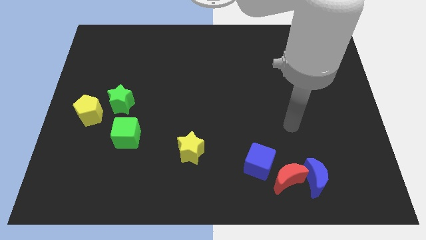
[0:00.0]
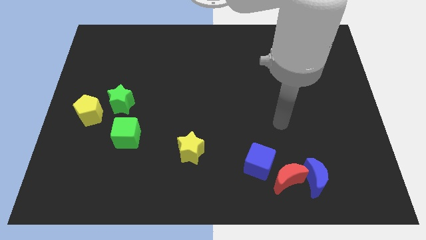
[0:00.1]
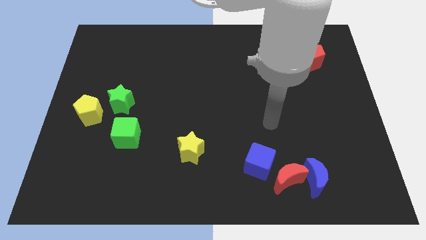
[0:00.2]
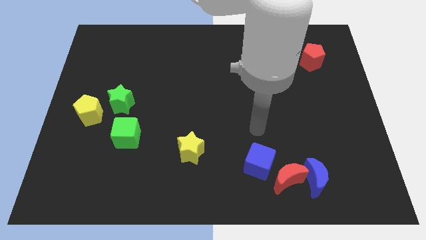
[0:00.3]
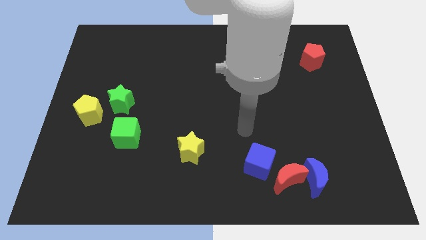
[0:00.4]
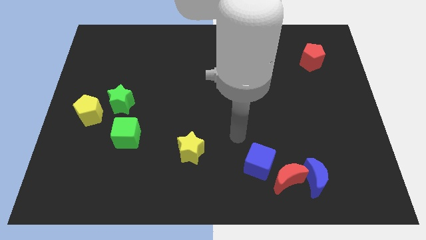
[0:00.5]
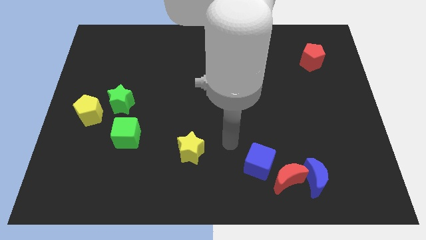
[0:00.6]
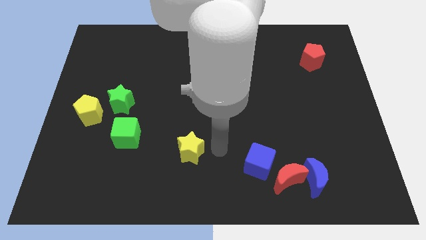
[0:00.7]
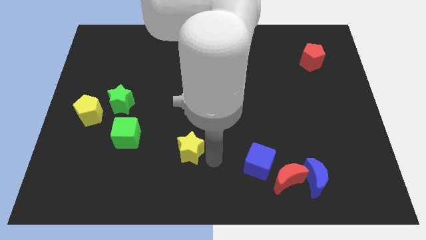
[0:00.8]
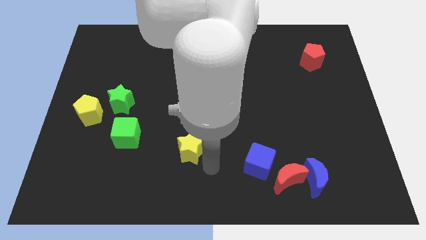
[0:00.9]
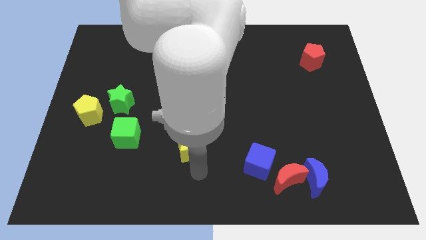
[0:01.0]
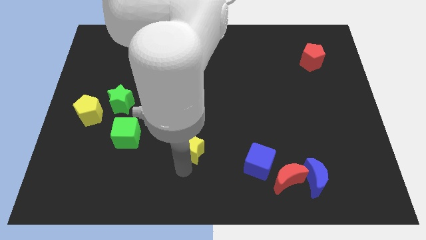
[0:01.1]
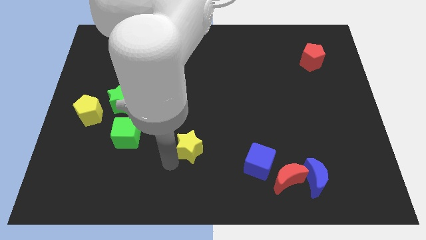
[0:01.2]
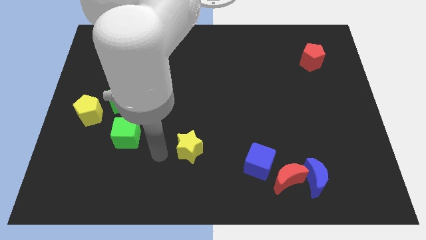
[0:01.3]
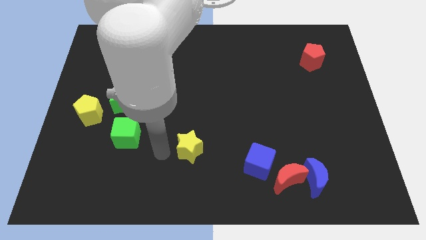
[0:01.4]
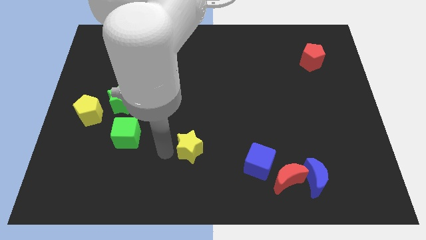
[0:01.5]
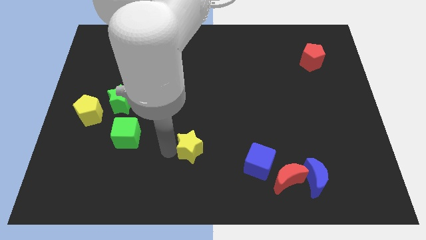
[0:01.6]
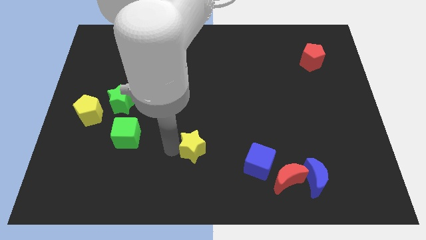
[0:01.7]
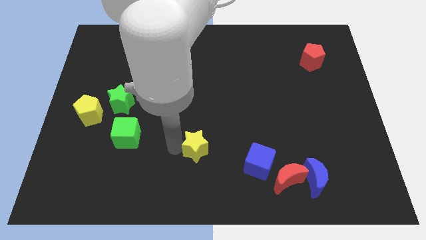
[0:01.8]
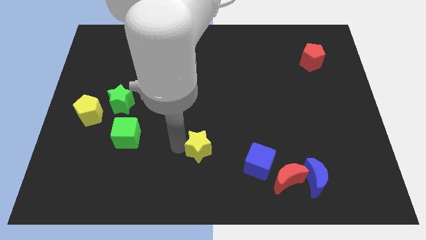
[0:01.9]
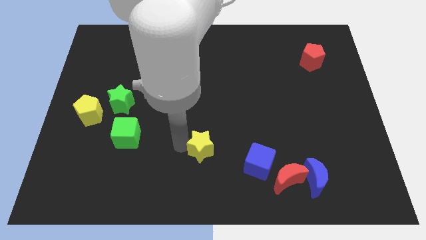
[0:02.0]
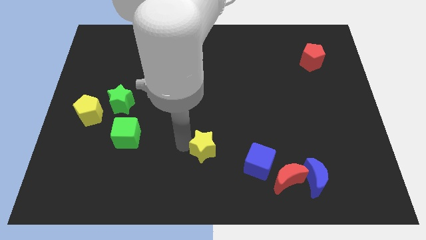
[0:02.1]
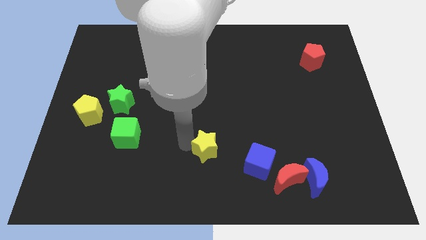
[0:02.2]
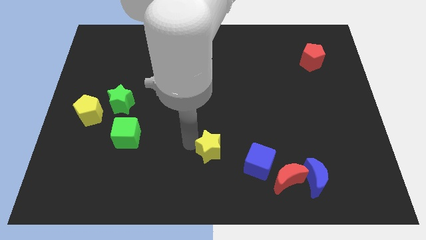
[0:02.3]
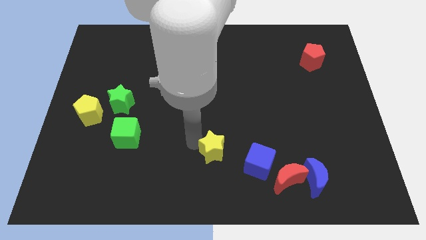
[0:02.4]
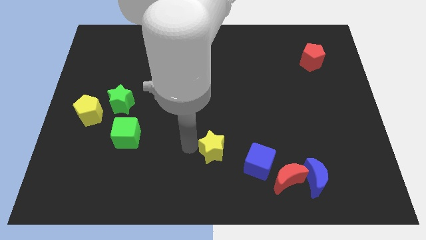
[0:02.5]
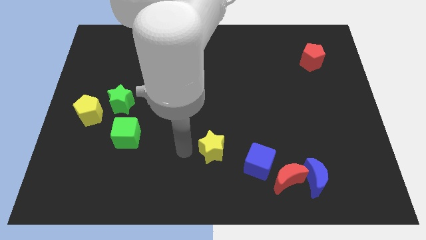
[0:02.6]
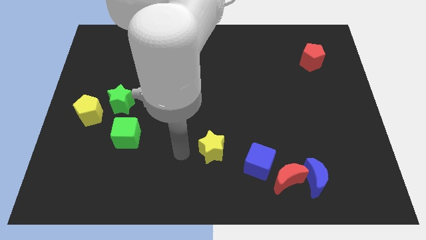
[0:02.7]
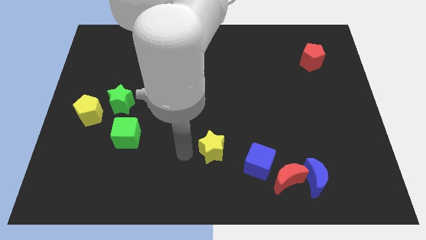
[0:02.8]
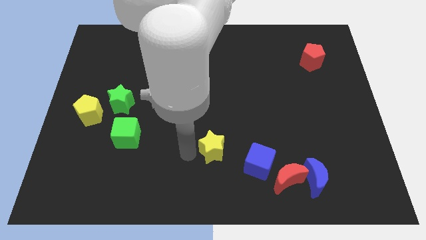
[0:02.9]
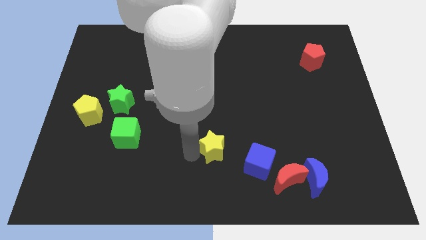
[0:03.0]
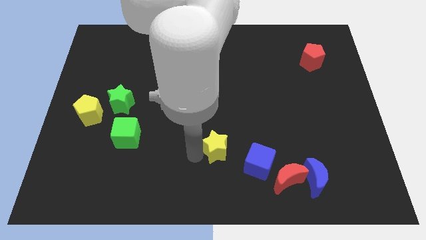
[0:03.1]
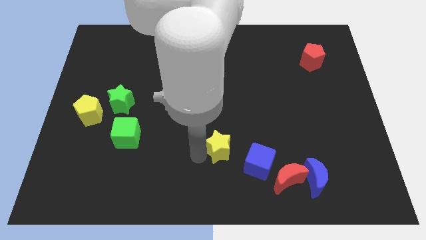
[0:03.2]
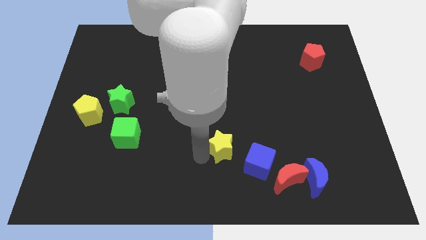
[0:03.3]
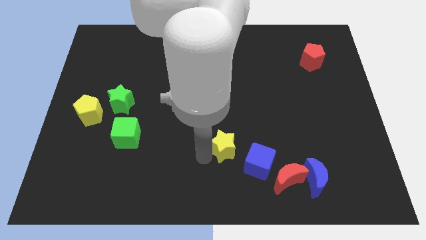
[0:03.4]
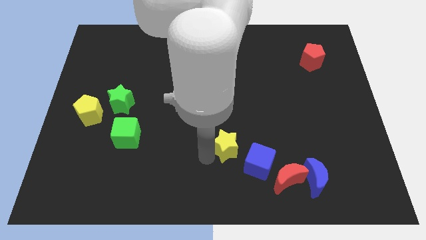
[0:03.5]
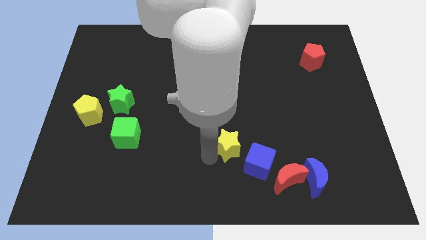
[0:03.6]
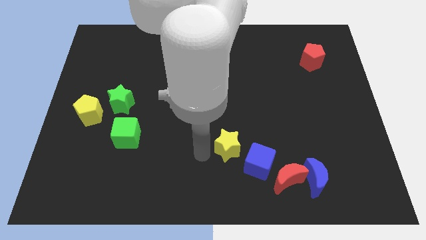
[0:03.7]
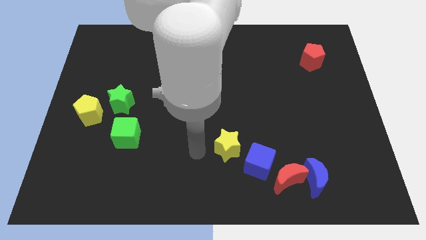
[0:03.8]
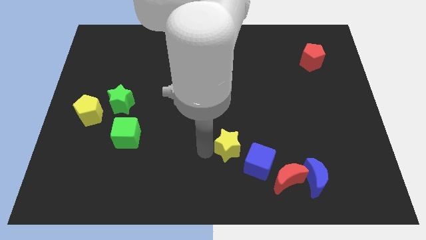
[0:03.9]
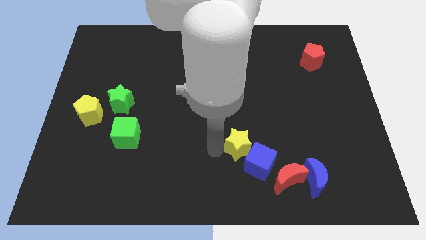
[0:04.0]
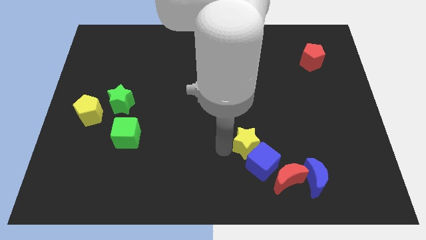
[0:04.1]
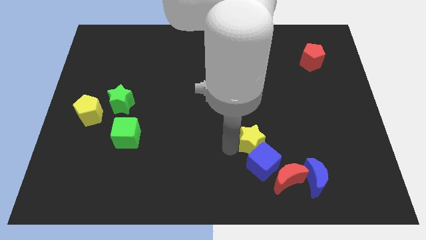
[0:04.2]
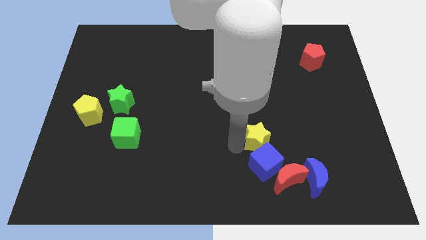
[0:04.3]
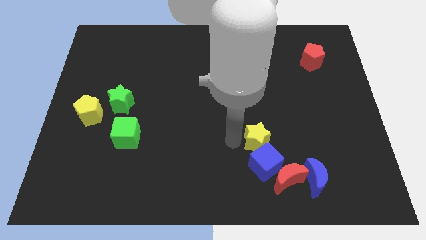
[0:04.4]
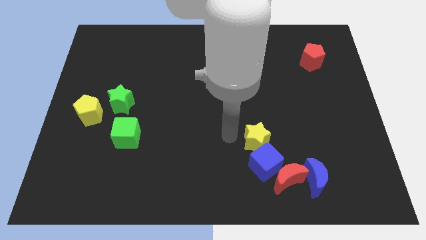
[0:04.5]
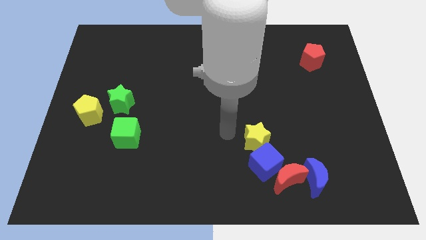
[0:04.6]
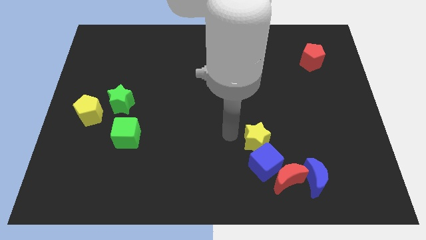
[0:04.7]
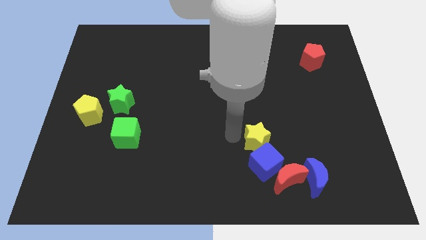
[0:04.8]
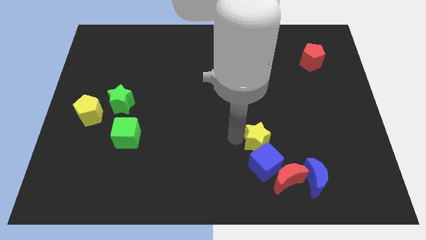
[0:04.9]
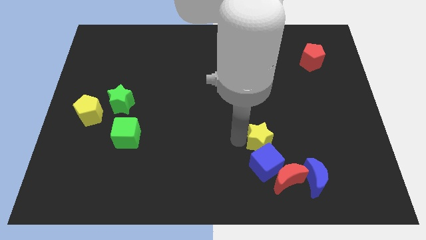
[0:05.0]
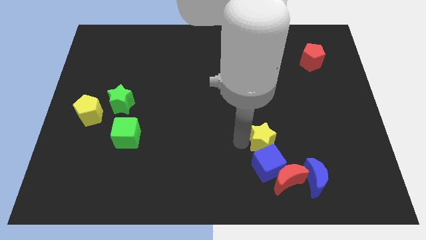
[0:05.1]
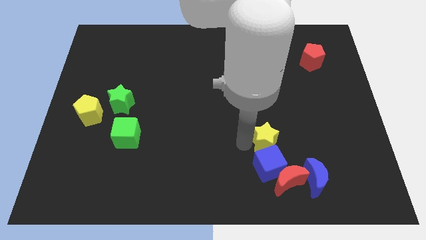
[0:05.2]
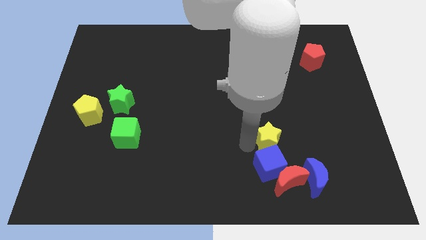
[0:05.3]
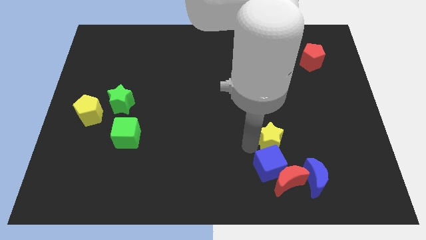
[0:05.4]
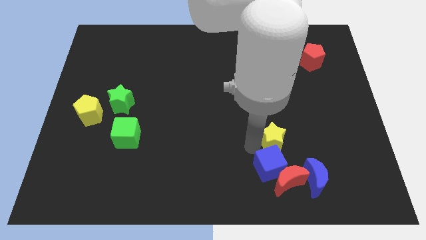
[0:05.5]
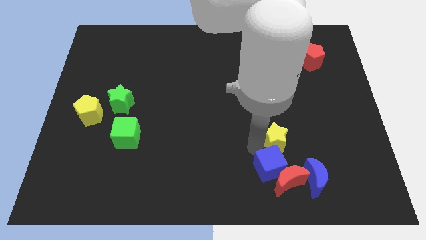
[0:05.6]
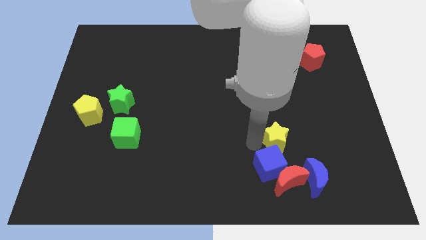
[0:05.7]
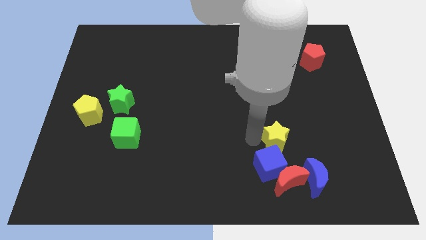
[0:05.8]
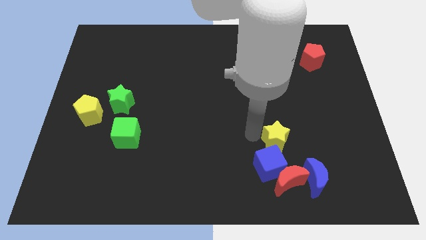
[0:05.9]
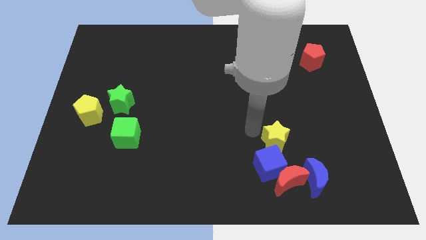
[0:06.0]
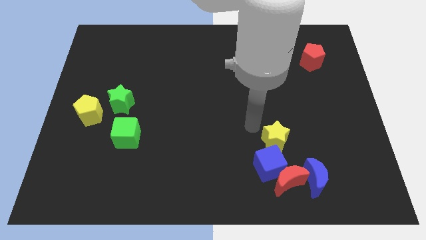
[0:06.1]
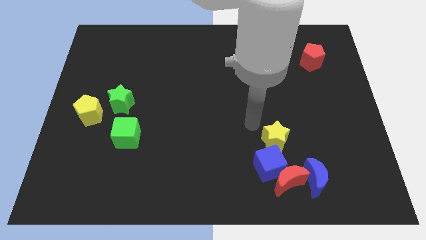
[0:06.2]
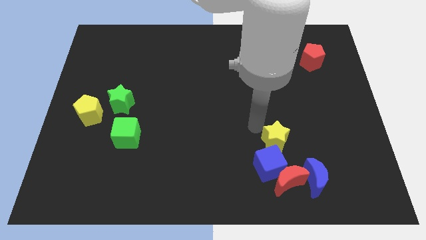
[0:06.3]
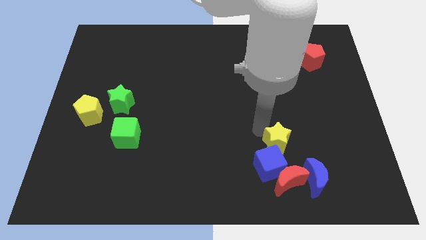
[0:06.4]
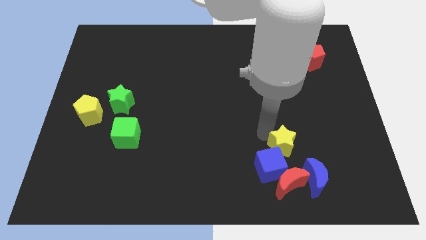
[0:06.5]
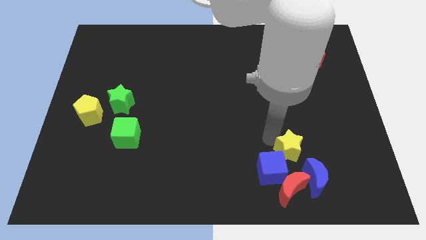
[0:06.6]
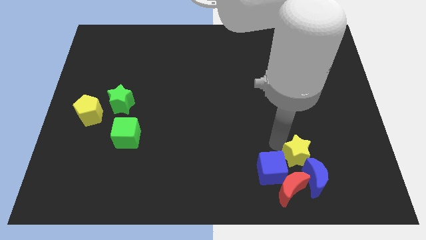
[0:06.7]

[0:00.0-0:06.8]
push the yellow star to the top right of the red moon

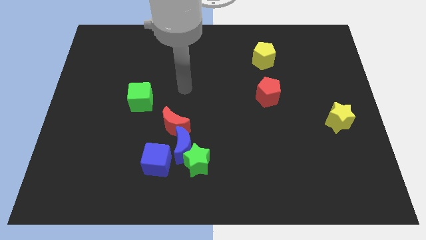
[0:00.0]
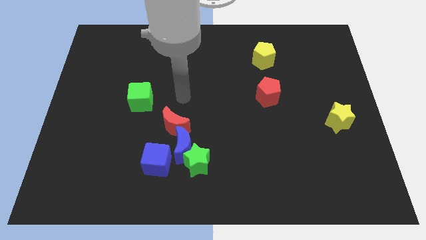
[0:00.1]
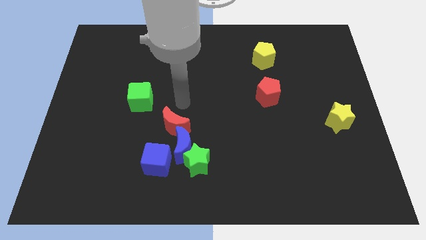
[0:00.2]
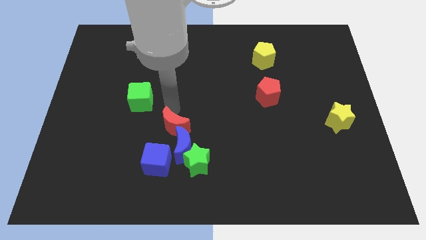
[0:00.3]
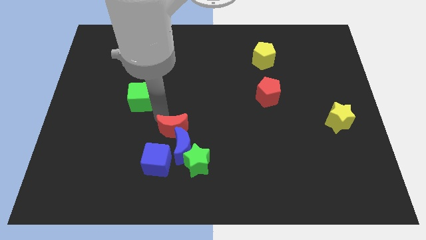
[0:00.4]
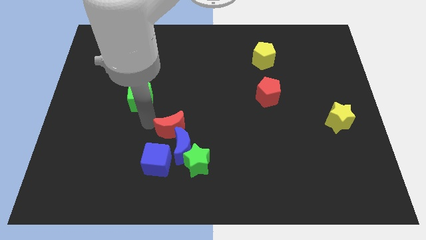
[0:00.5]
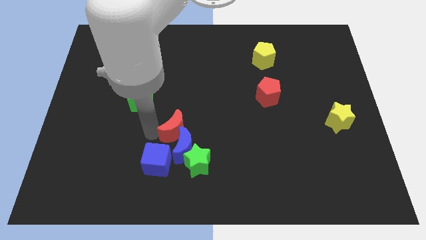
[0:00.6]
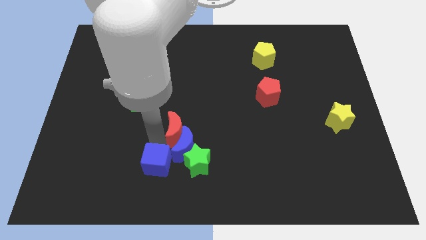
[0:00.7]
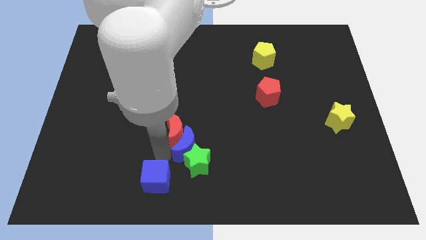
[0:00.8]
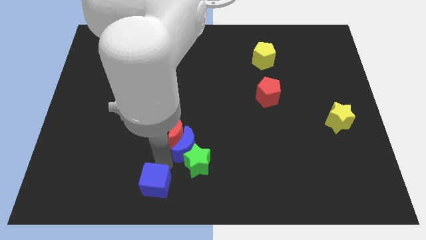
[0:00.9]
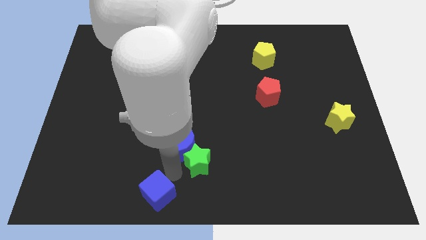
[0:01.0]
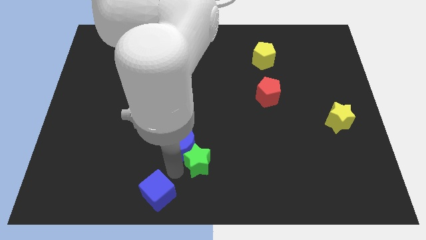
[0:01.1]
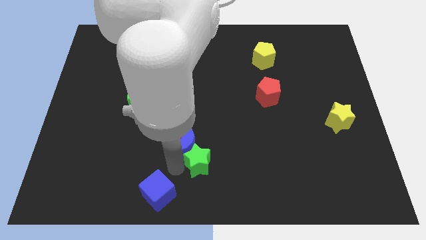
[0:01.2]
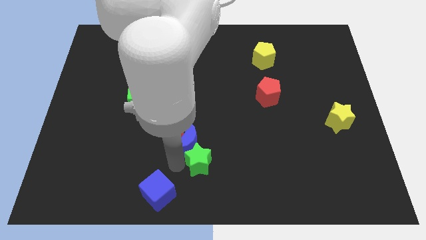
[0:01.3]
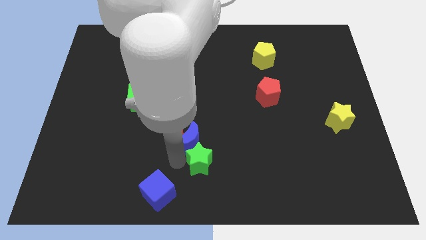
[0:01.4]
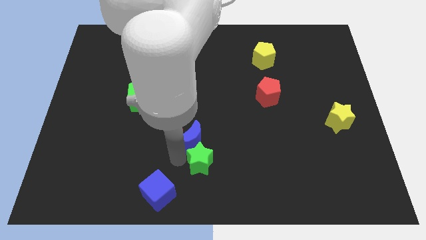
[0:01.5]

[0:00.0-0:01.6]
push the blue moon diagonally up and to the right of the red moon
